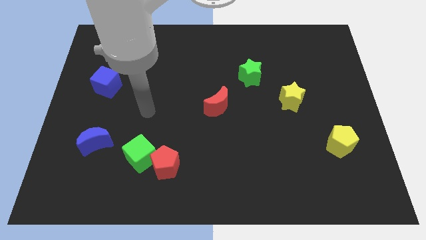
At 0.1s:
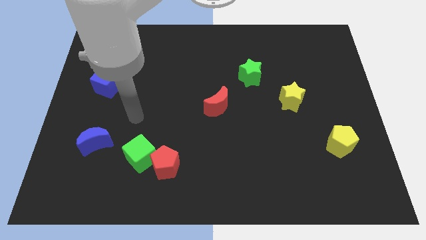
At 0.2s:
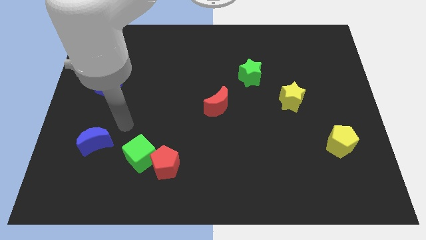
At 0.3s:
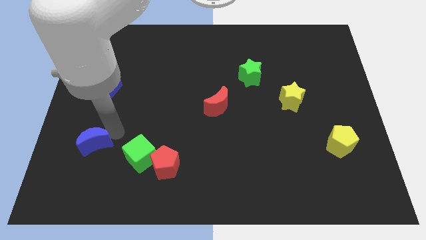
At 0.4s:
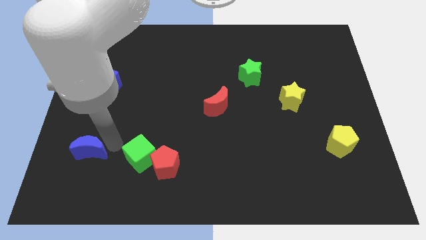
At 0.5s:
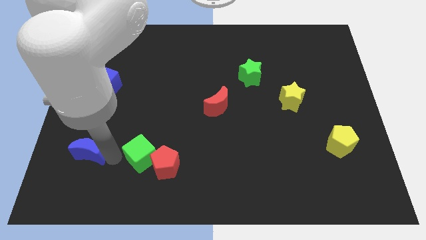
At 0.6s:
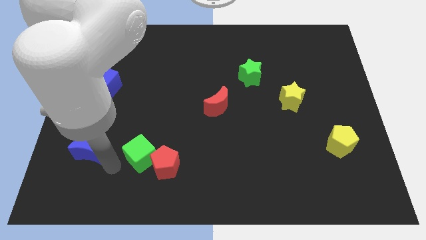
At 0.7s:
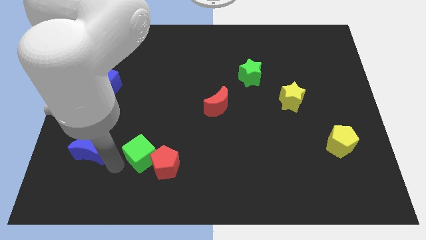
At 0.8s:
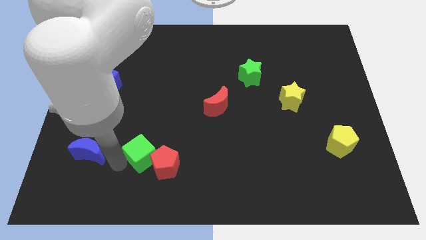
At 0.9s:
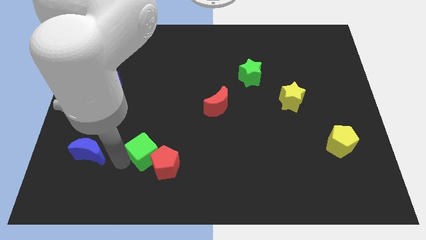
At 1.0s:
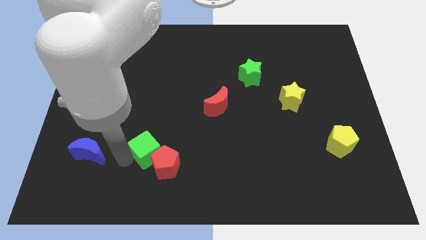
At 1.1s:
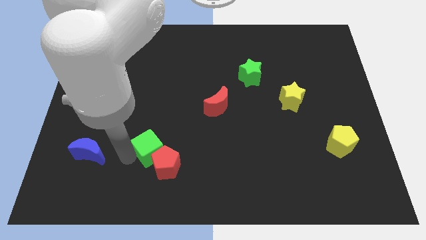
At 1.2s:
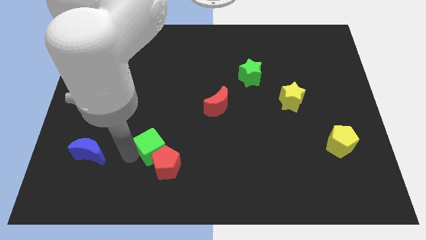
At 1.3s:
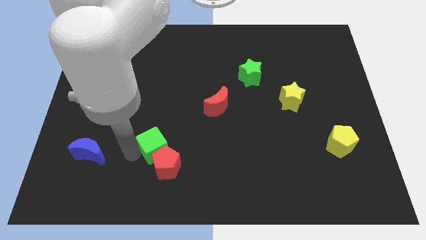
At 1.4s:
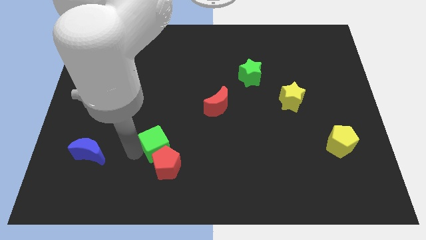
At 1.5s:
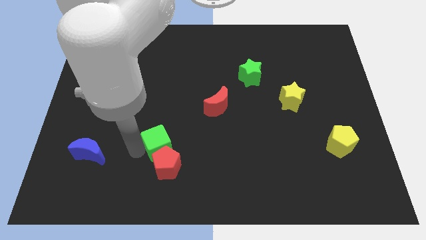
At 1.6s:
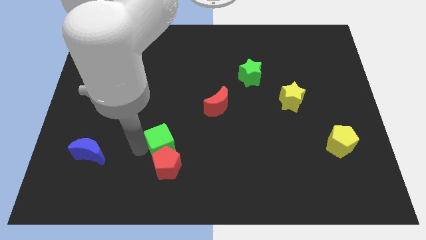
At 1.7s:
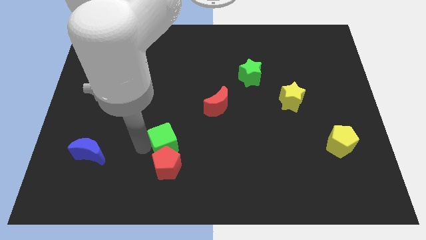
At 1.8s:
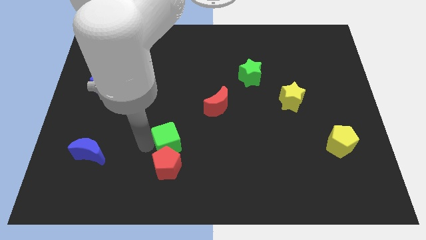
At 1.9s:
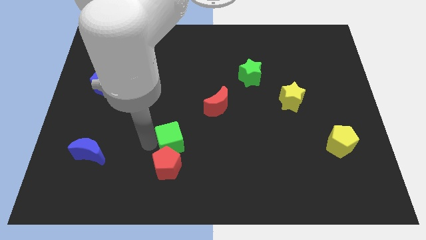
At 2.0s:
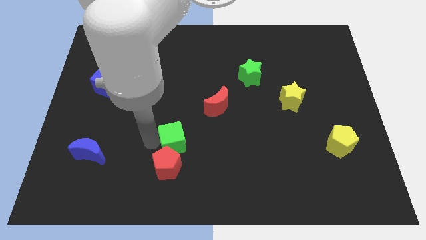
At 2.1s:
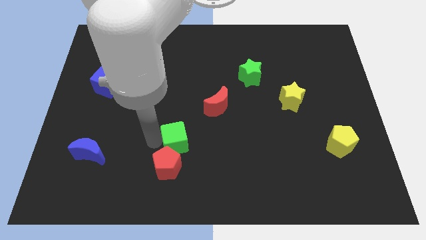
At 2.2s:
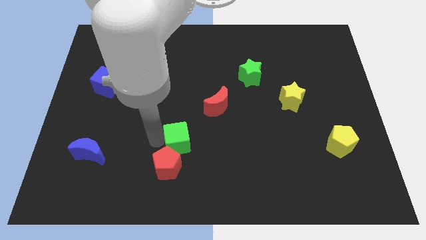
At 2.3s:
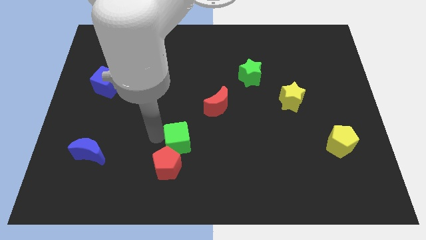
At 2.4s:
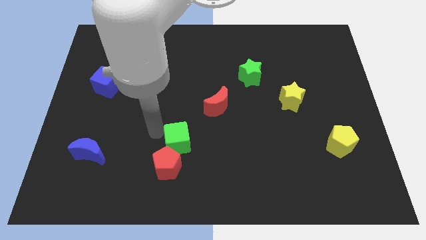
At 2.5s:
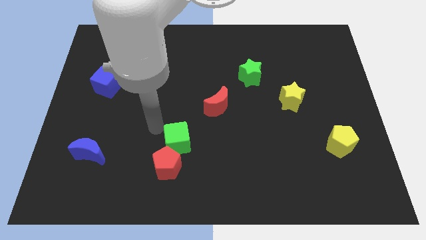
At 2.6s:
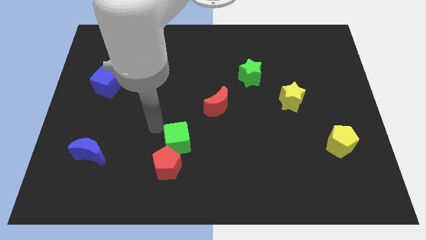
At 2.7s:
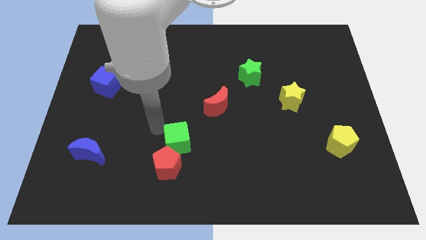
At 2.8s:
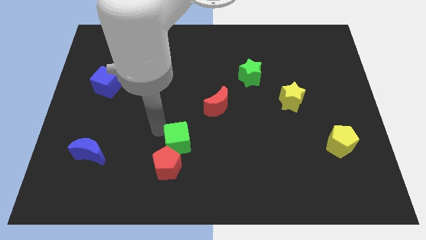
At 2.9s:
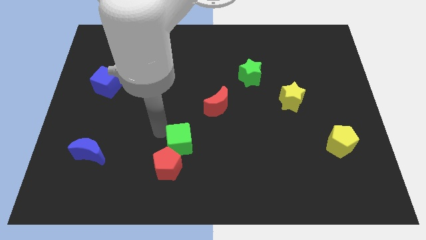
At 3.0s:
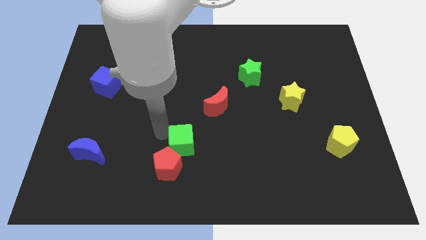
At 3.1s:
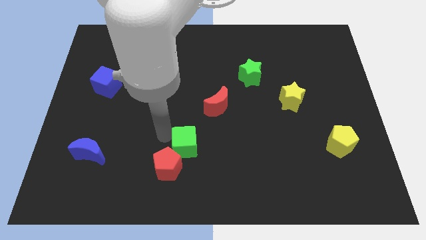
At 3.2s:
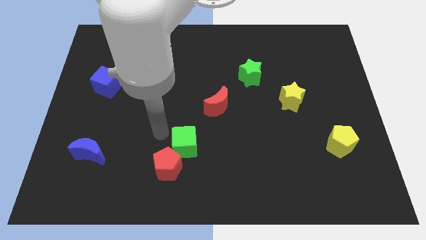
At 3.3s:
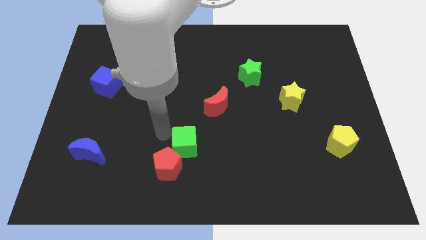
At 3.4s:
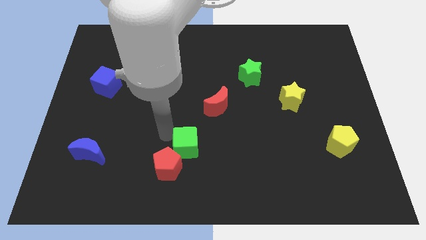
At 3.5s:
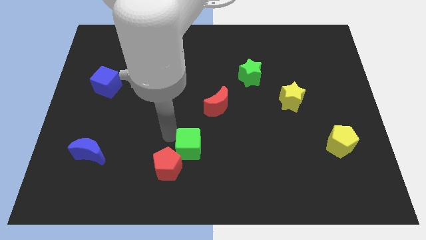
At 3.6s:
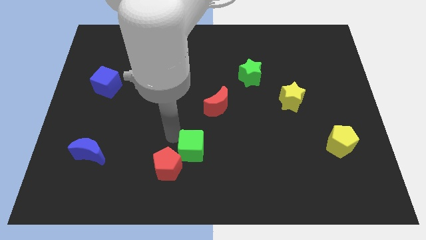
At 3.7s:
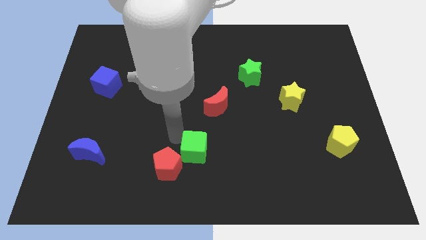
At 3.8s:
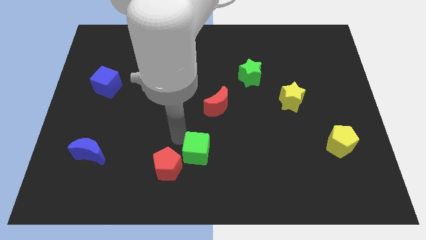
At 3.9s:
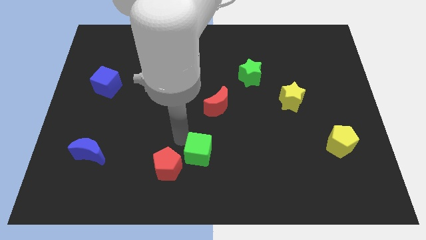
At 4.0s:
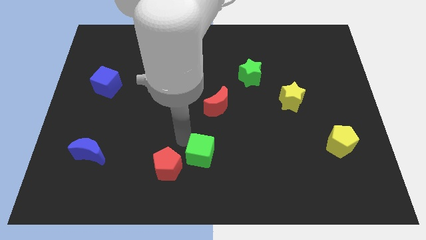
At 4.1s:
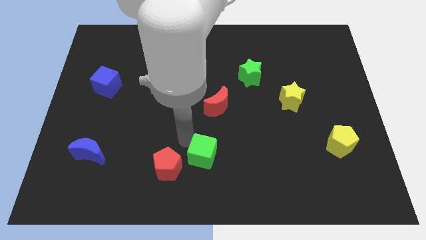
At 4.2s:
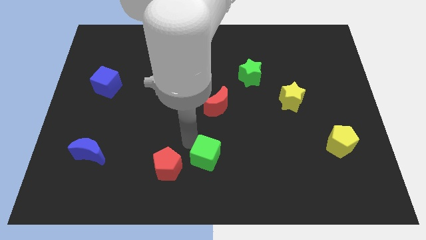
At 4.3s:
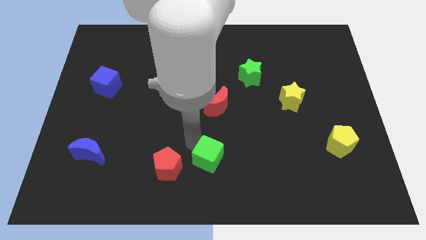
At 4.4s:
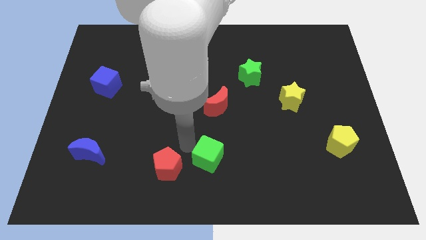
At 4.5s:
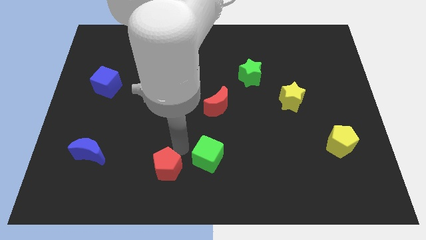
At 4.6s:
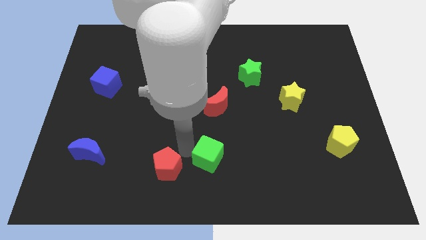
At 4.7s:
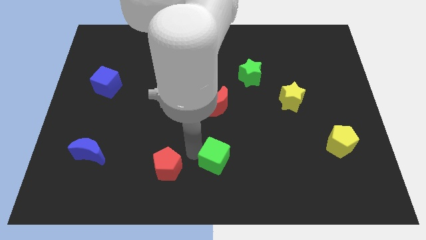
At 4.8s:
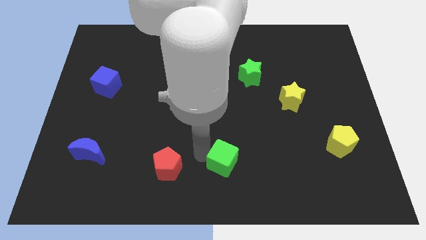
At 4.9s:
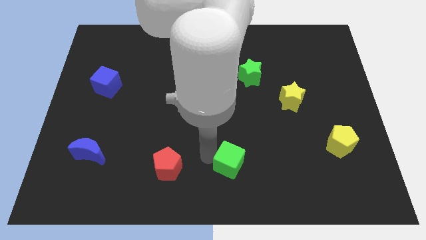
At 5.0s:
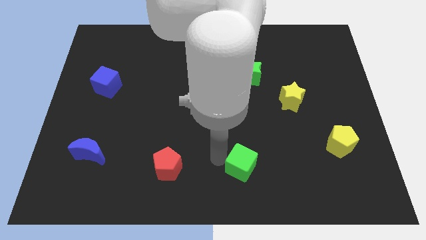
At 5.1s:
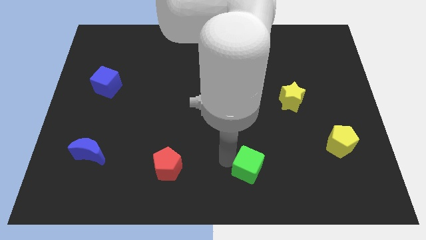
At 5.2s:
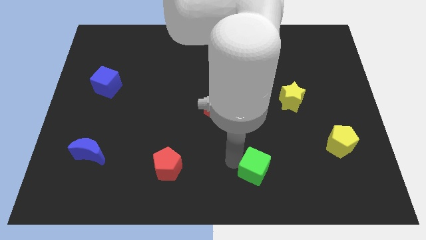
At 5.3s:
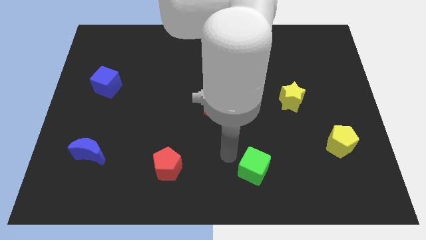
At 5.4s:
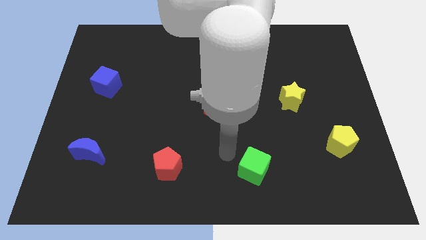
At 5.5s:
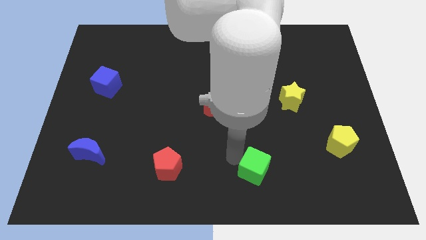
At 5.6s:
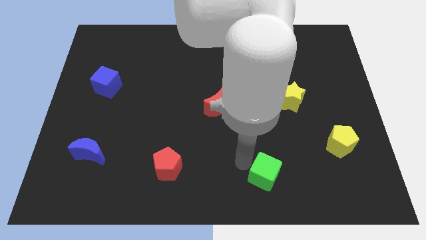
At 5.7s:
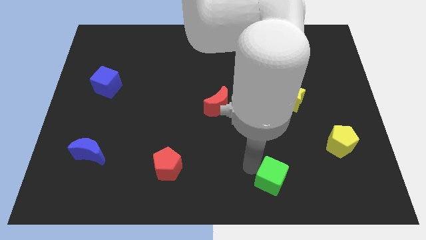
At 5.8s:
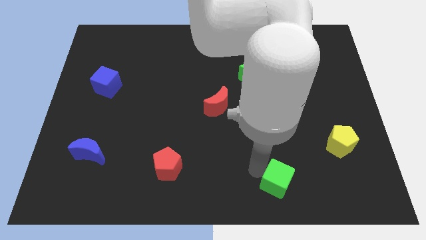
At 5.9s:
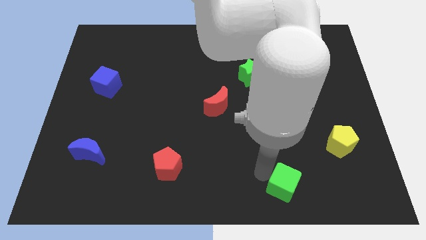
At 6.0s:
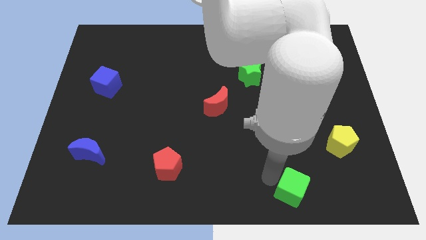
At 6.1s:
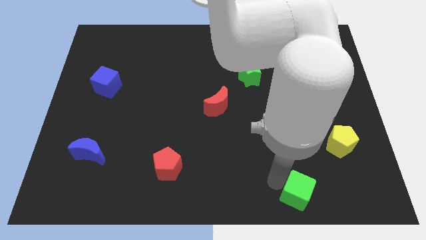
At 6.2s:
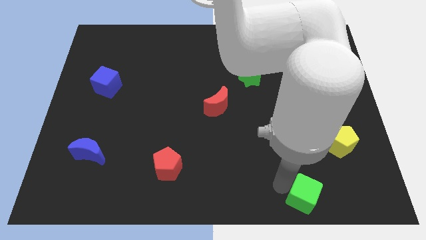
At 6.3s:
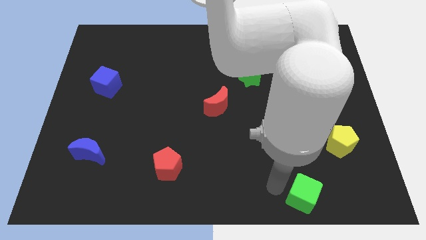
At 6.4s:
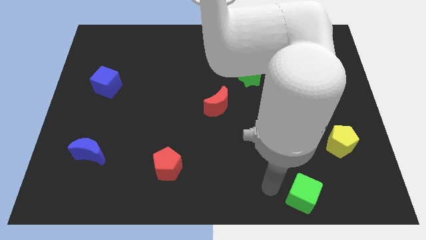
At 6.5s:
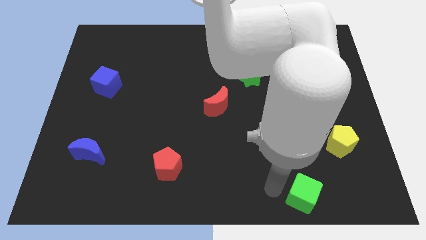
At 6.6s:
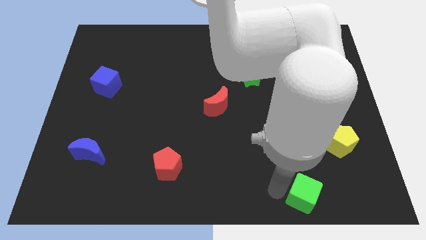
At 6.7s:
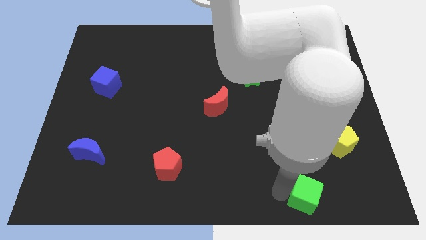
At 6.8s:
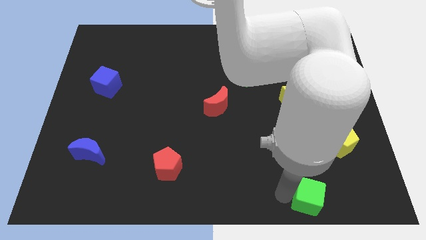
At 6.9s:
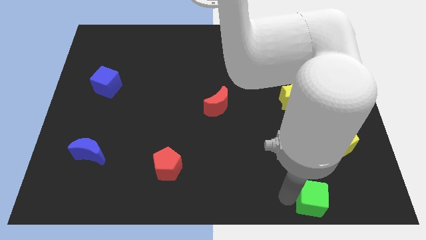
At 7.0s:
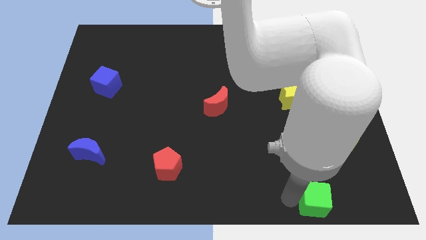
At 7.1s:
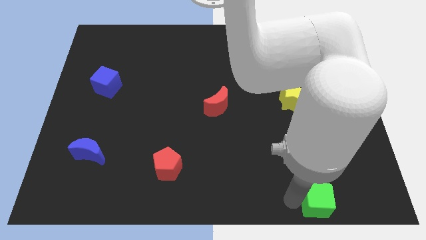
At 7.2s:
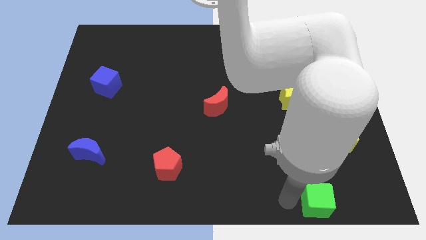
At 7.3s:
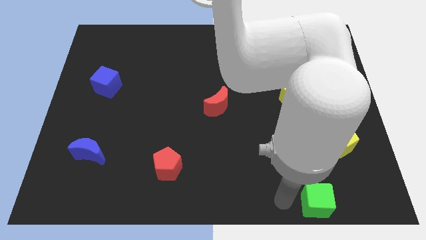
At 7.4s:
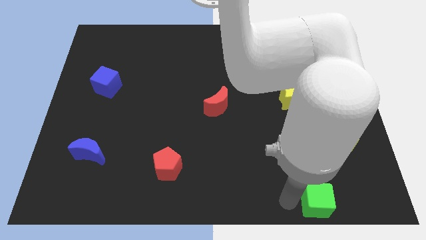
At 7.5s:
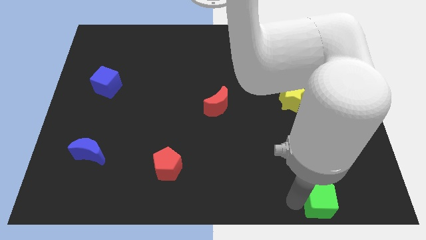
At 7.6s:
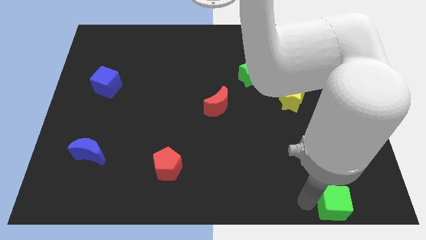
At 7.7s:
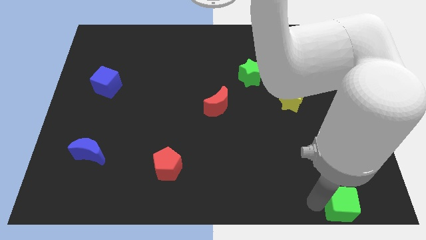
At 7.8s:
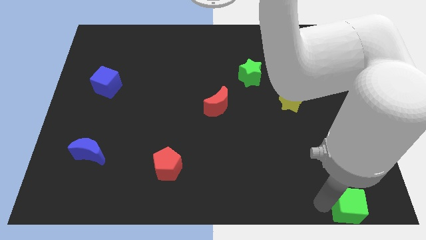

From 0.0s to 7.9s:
push the green cube to the bottom right corner
